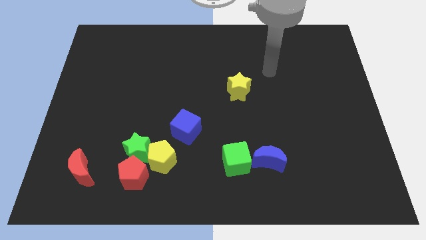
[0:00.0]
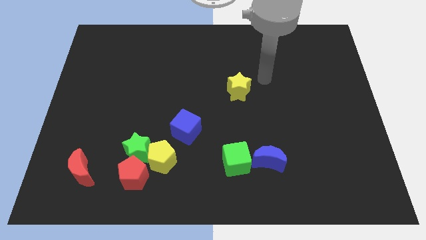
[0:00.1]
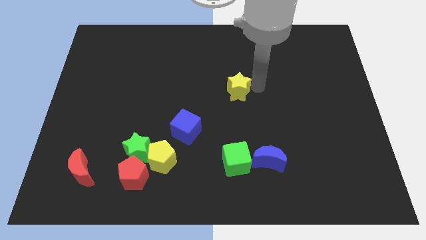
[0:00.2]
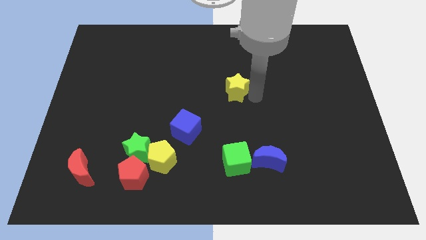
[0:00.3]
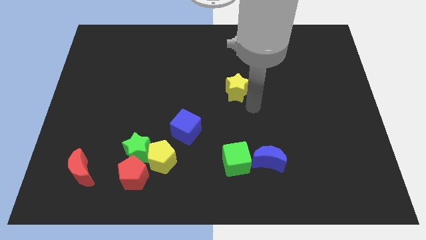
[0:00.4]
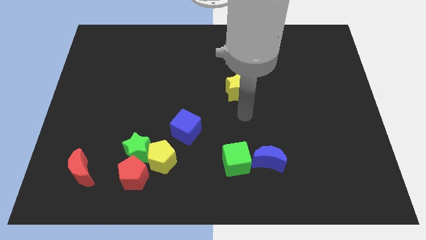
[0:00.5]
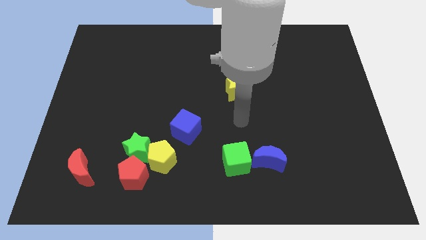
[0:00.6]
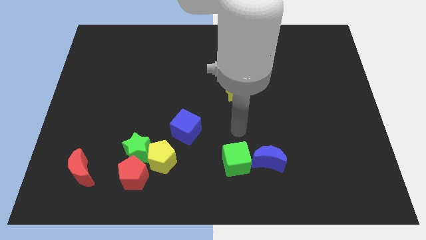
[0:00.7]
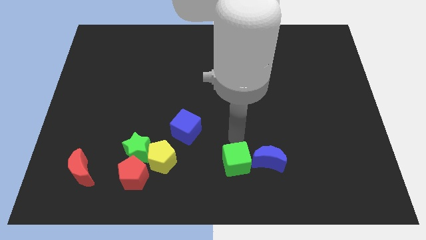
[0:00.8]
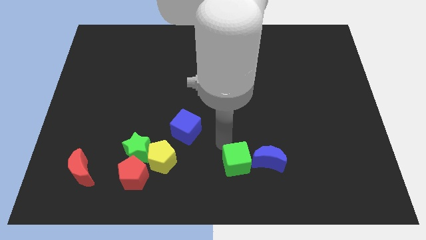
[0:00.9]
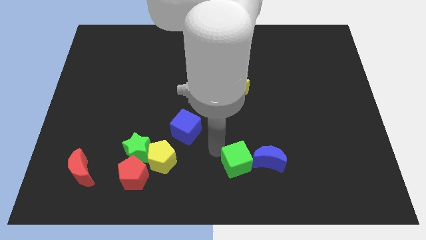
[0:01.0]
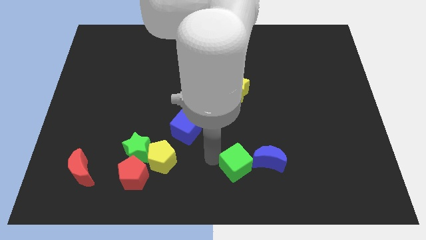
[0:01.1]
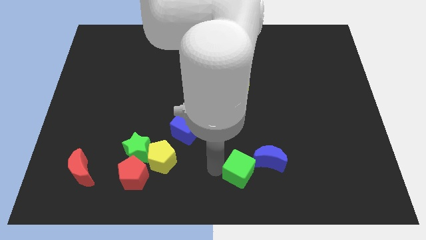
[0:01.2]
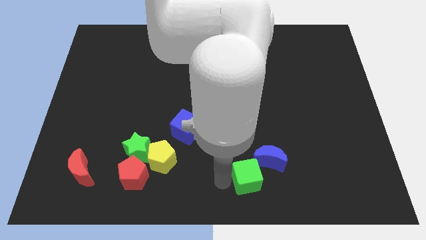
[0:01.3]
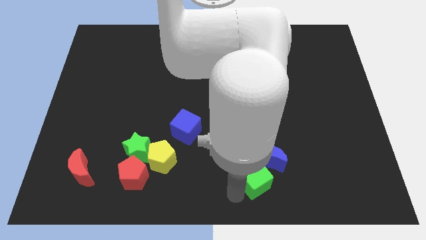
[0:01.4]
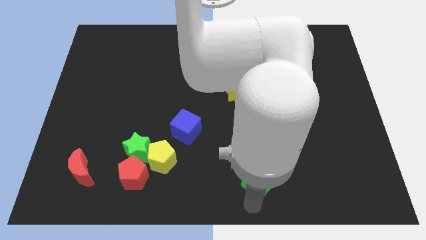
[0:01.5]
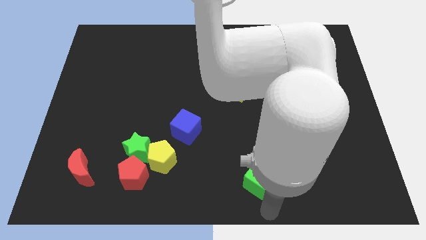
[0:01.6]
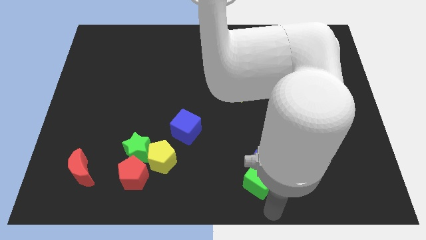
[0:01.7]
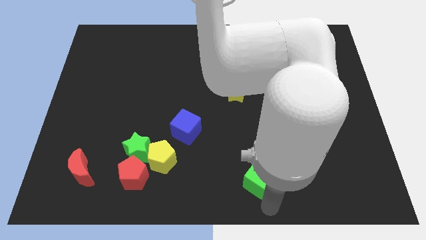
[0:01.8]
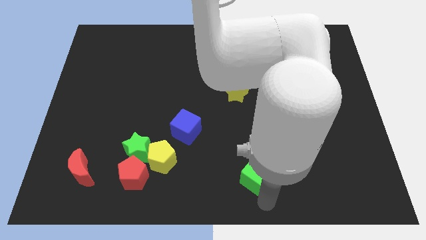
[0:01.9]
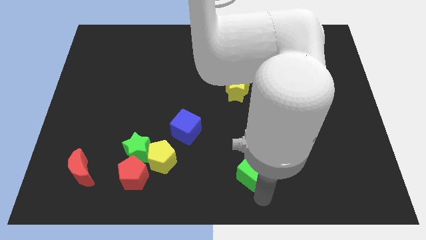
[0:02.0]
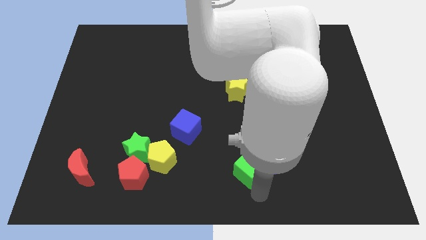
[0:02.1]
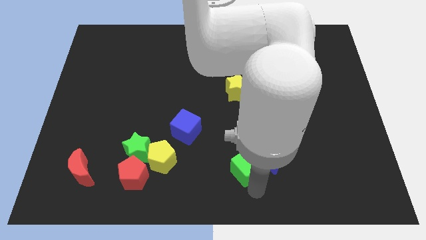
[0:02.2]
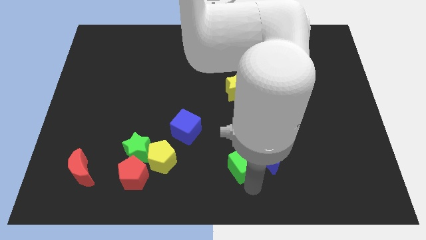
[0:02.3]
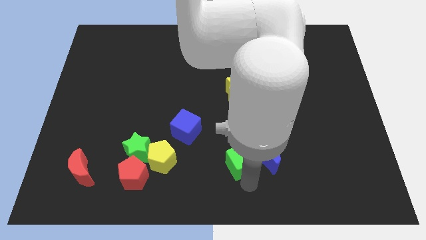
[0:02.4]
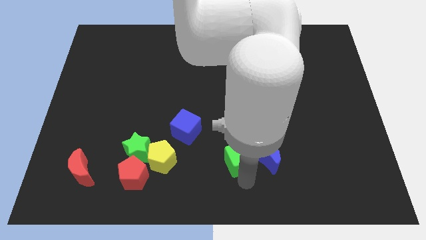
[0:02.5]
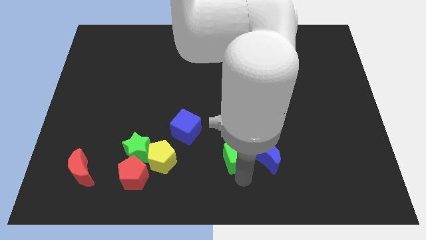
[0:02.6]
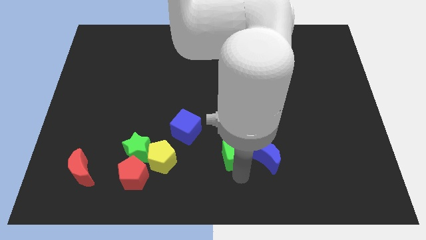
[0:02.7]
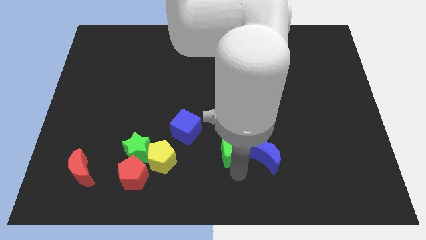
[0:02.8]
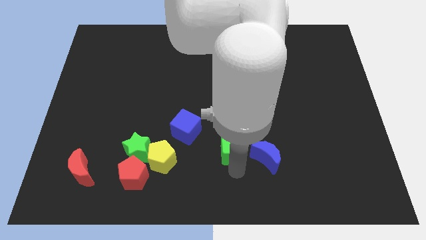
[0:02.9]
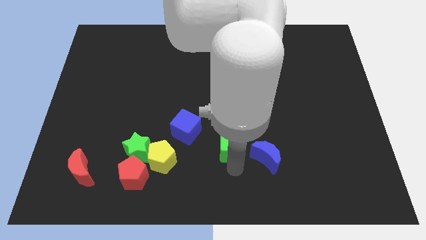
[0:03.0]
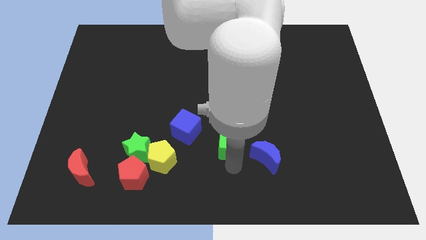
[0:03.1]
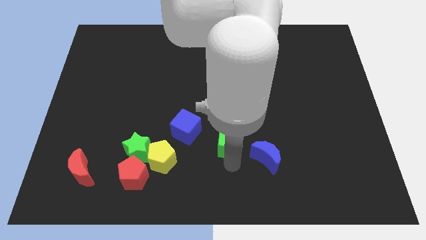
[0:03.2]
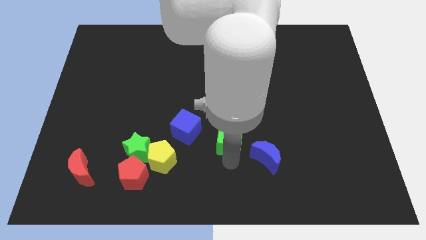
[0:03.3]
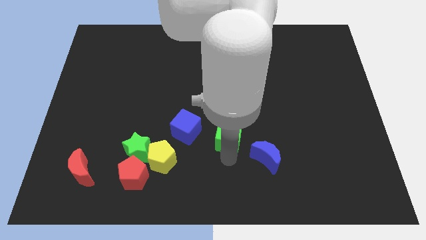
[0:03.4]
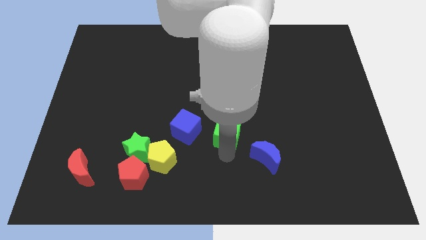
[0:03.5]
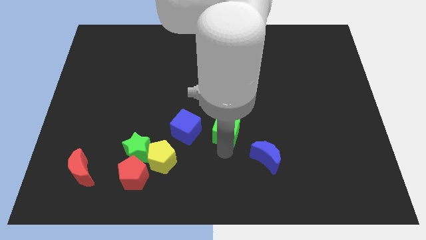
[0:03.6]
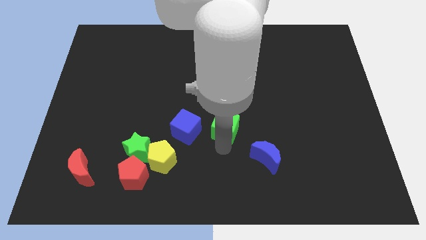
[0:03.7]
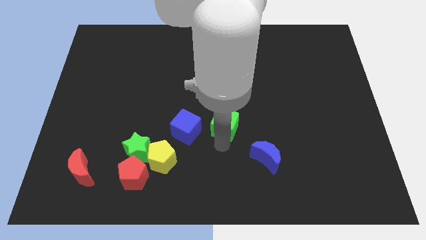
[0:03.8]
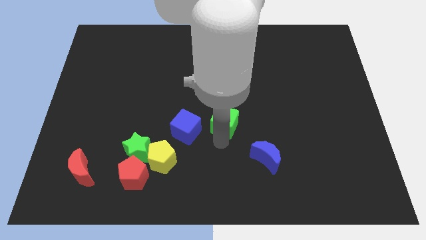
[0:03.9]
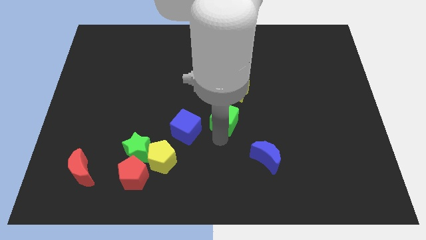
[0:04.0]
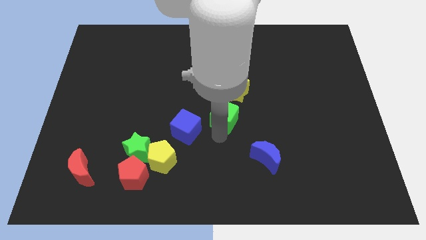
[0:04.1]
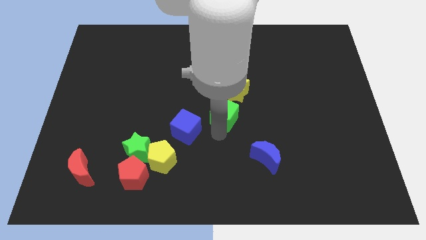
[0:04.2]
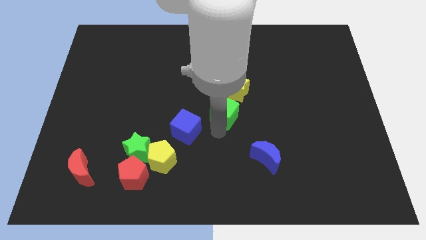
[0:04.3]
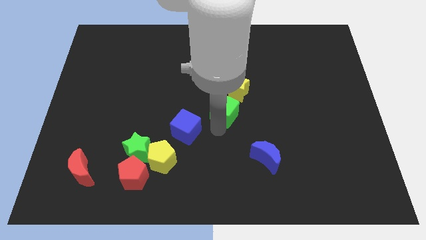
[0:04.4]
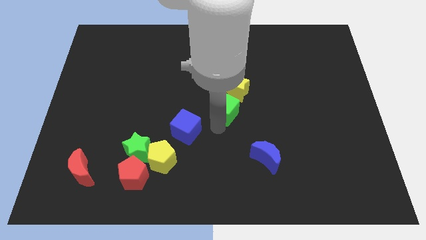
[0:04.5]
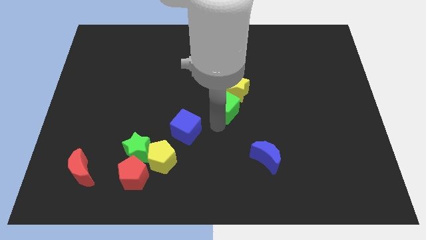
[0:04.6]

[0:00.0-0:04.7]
put the green cube towards the yellow star

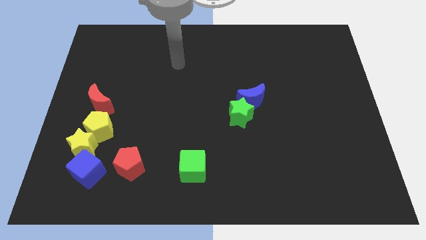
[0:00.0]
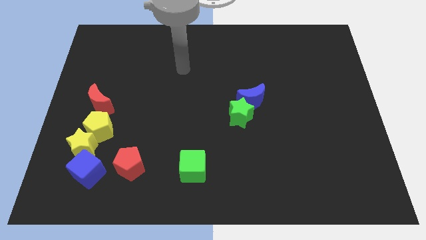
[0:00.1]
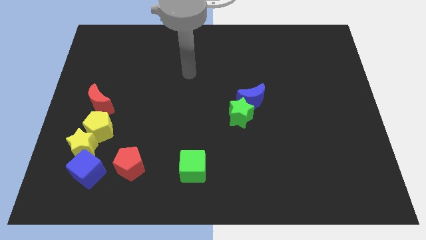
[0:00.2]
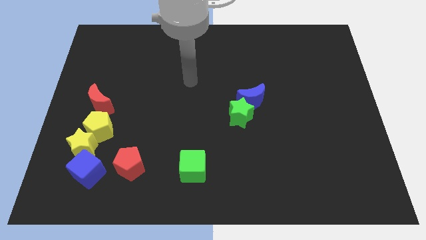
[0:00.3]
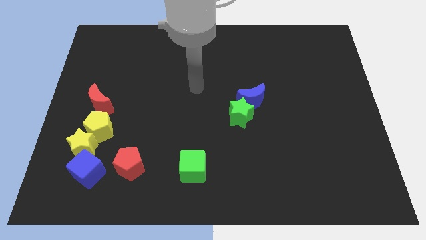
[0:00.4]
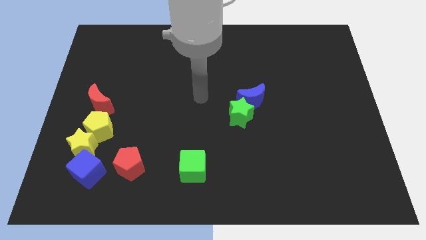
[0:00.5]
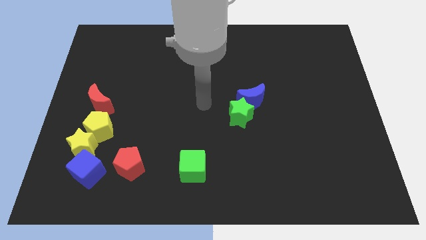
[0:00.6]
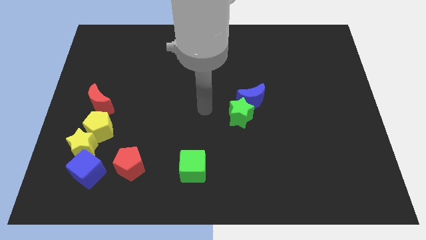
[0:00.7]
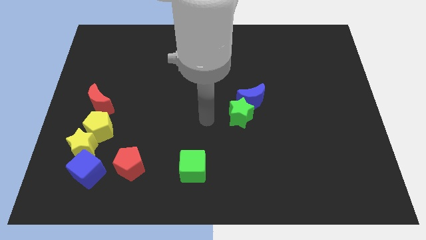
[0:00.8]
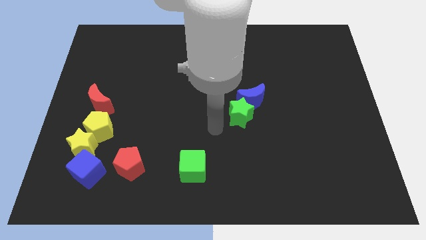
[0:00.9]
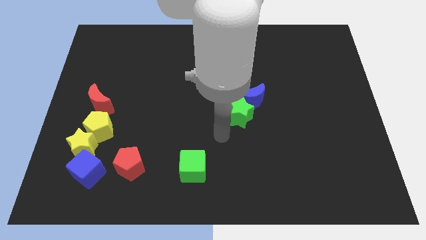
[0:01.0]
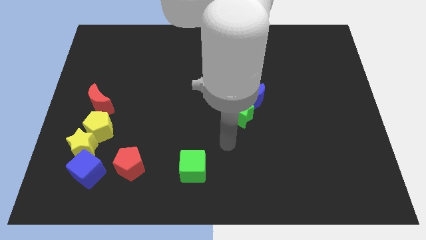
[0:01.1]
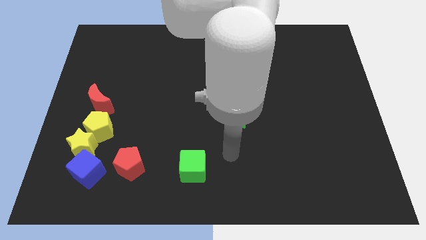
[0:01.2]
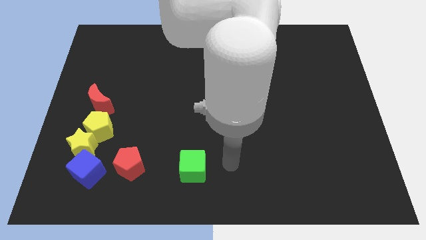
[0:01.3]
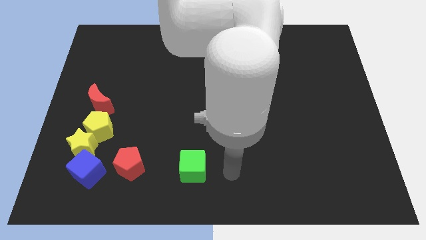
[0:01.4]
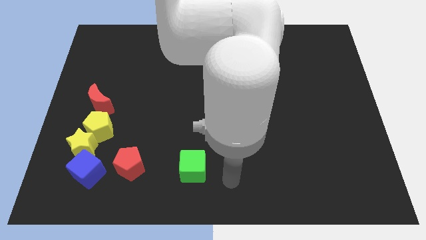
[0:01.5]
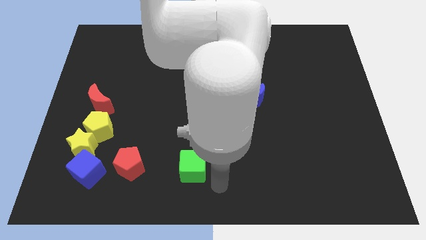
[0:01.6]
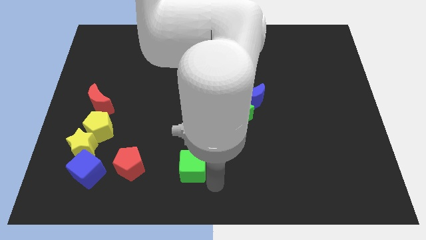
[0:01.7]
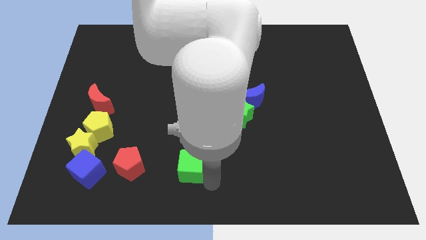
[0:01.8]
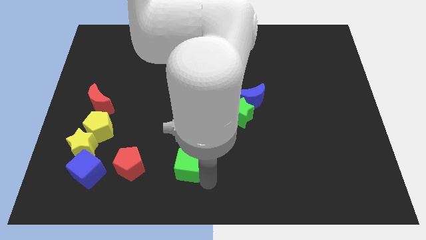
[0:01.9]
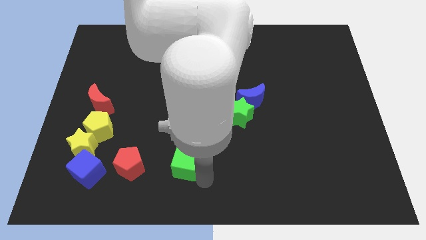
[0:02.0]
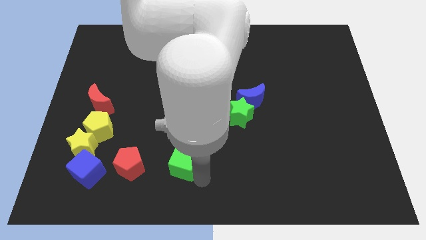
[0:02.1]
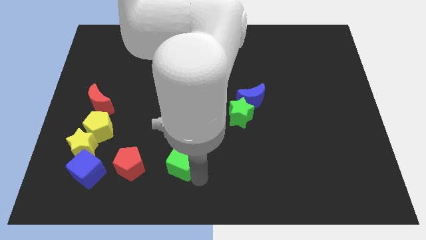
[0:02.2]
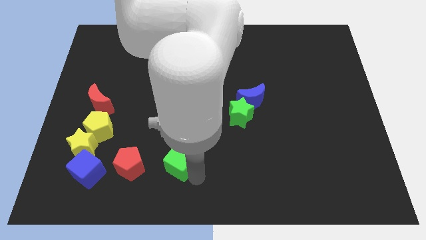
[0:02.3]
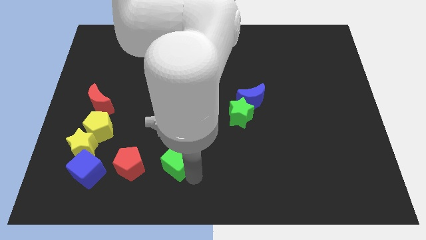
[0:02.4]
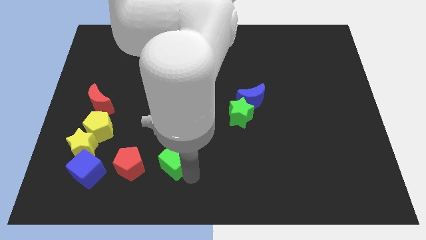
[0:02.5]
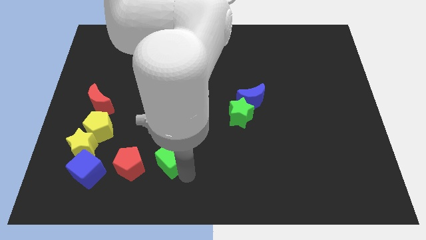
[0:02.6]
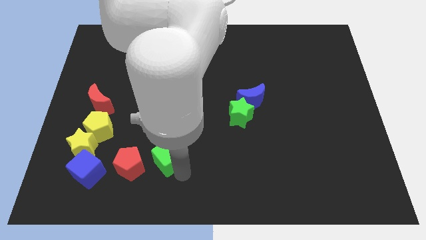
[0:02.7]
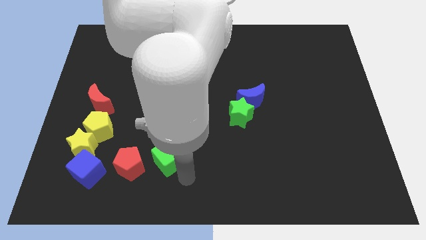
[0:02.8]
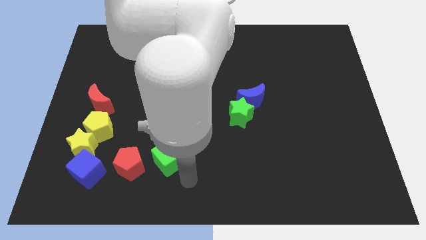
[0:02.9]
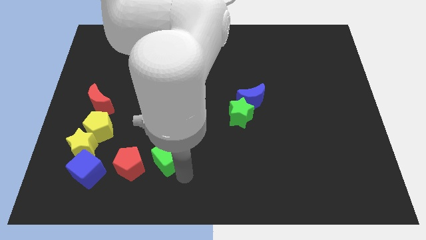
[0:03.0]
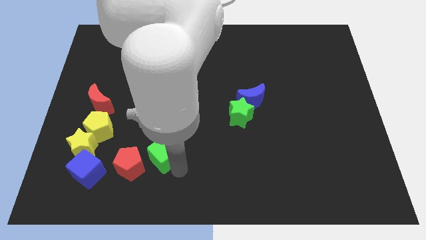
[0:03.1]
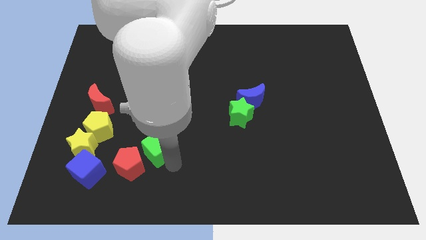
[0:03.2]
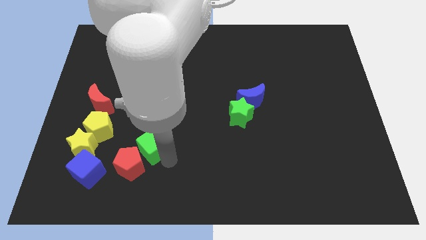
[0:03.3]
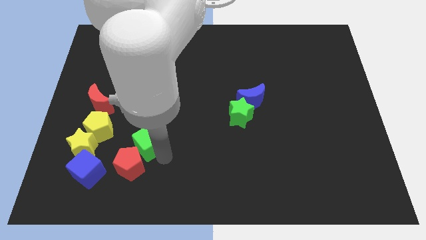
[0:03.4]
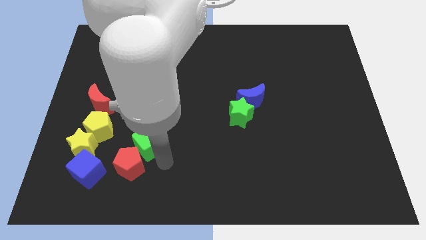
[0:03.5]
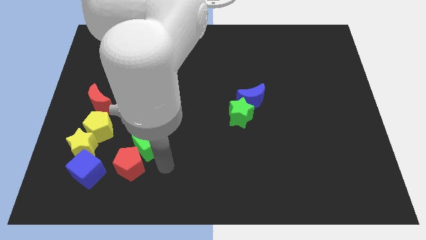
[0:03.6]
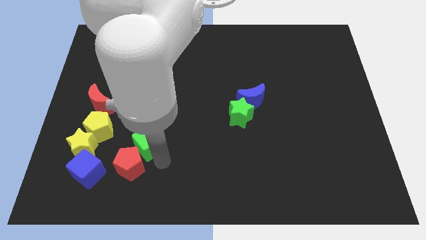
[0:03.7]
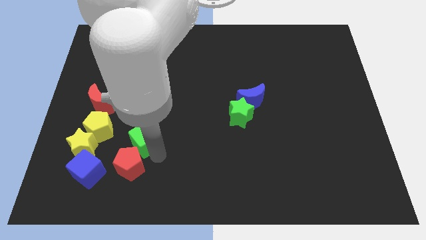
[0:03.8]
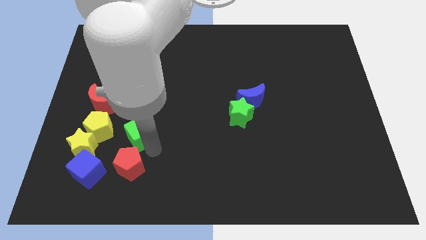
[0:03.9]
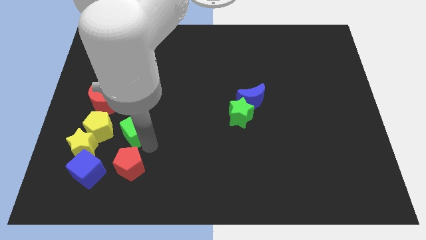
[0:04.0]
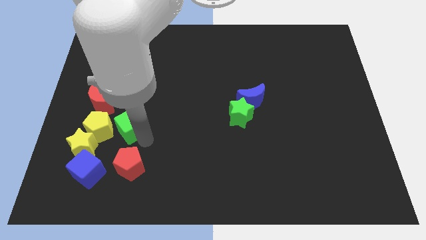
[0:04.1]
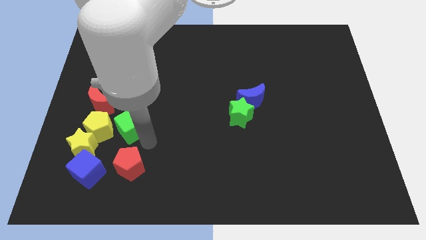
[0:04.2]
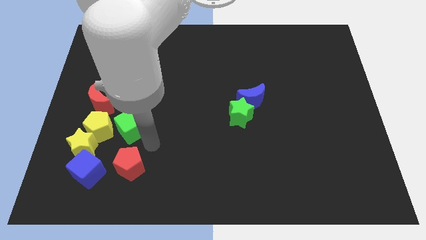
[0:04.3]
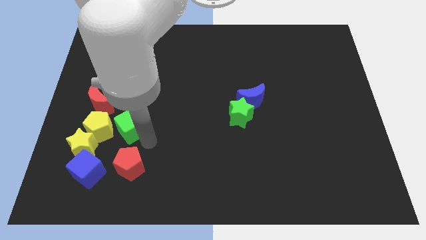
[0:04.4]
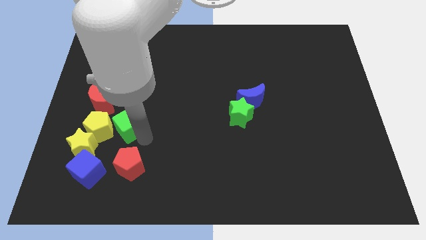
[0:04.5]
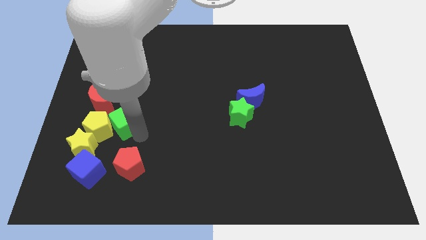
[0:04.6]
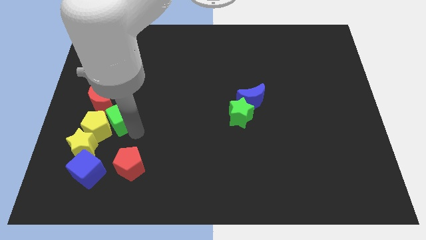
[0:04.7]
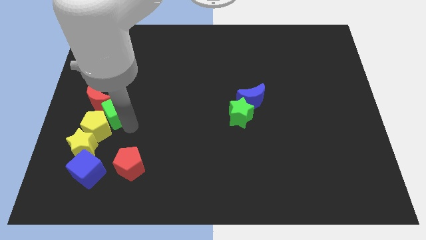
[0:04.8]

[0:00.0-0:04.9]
move the green cube close to the red moon
